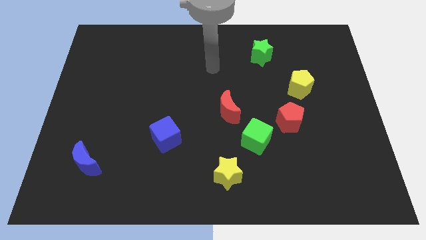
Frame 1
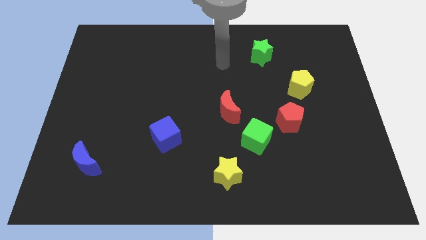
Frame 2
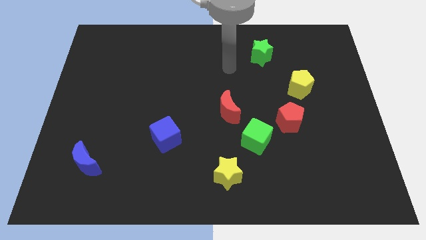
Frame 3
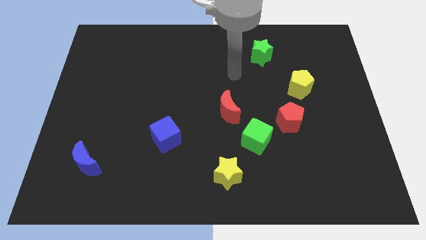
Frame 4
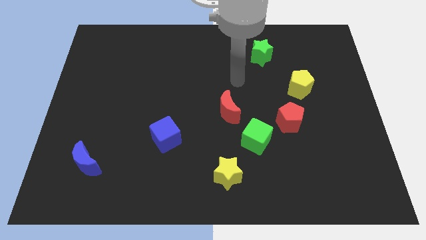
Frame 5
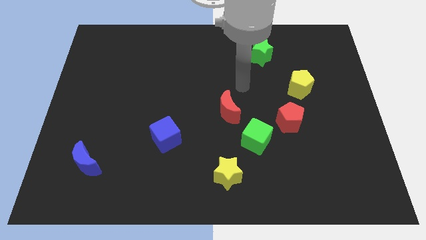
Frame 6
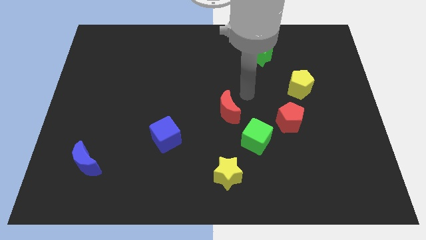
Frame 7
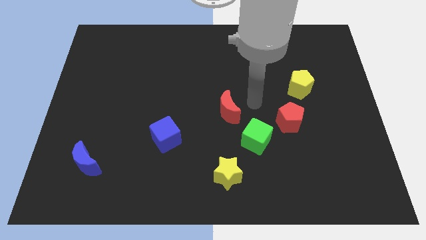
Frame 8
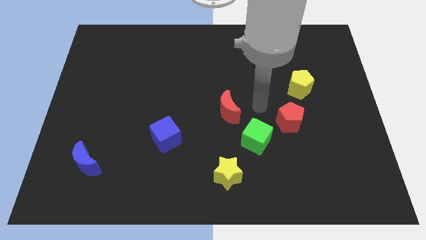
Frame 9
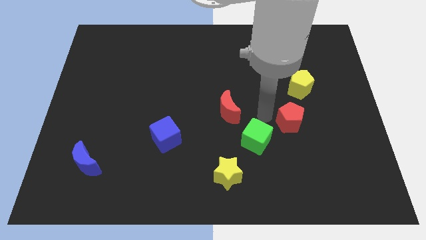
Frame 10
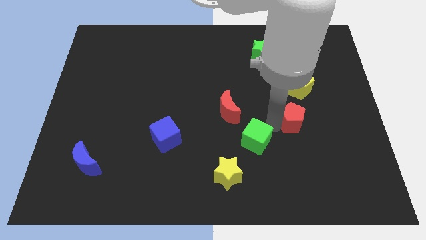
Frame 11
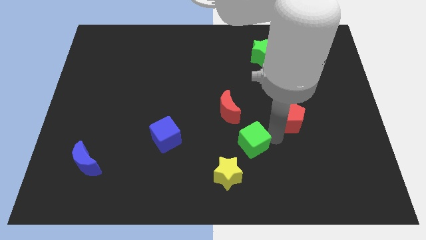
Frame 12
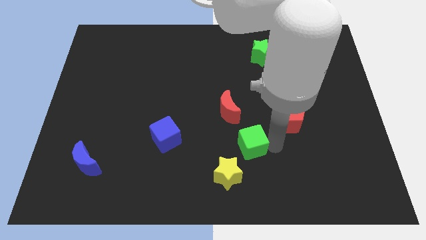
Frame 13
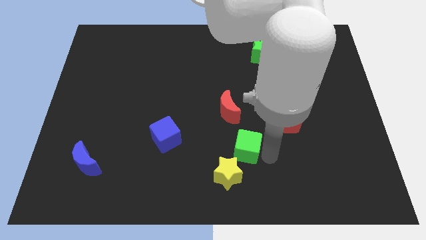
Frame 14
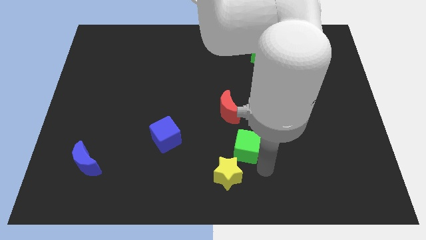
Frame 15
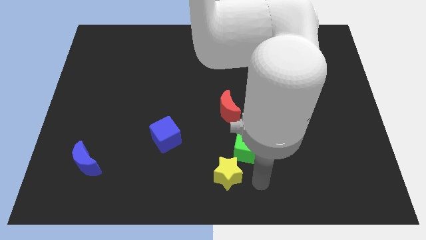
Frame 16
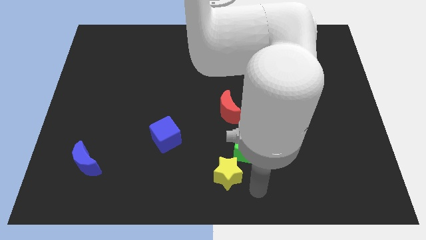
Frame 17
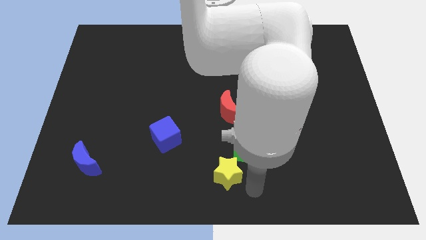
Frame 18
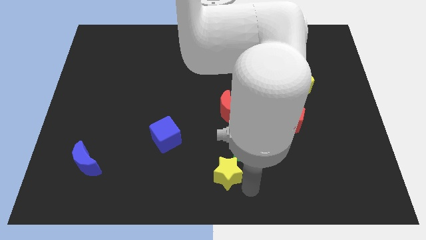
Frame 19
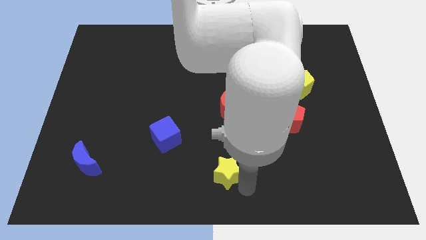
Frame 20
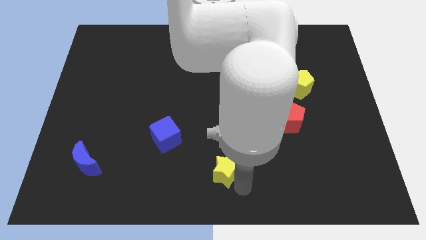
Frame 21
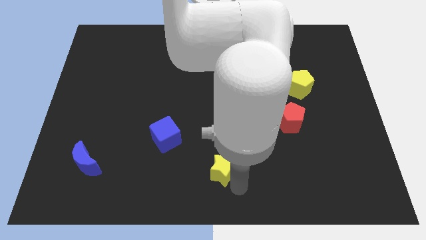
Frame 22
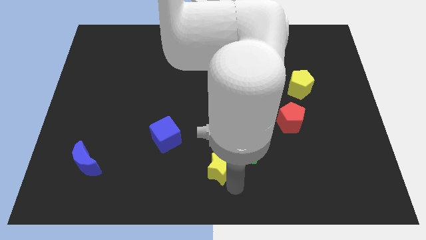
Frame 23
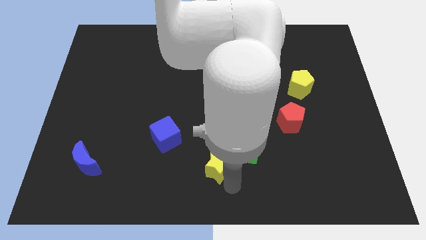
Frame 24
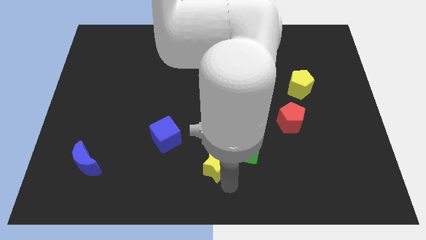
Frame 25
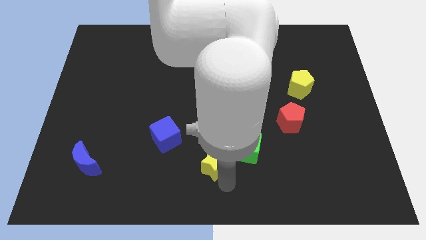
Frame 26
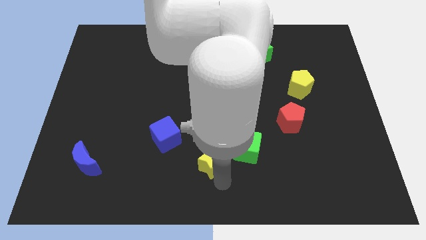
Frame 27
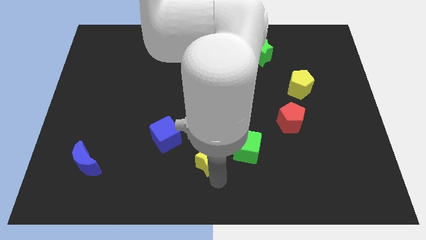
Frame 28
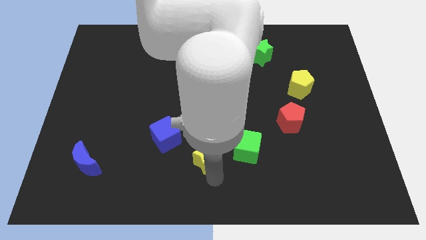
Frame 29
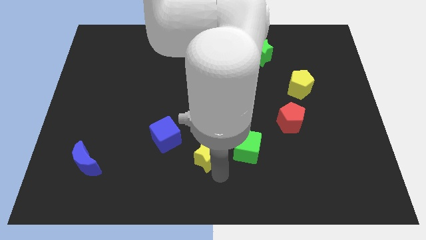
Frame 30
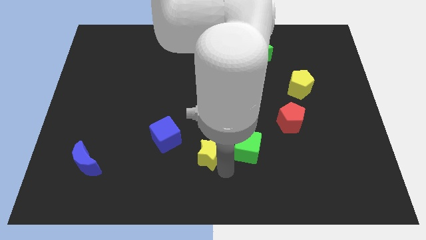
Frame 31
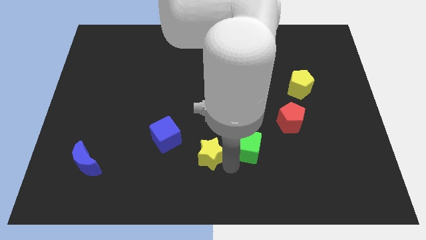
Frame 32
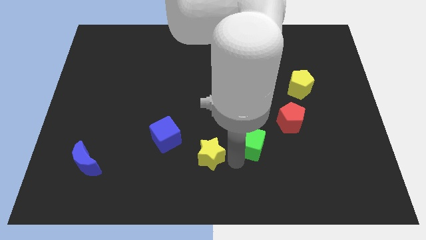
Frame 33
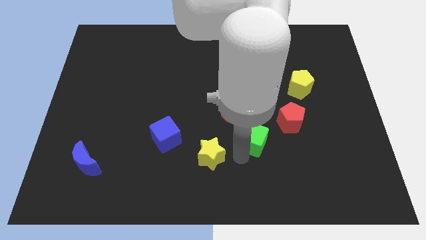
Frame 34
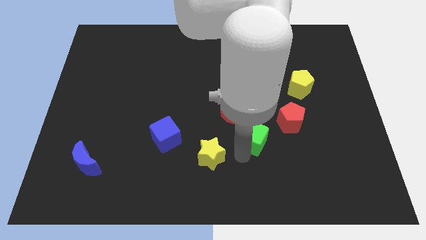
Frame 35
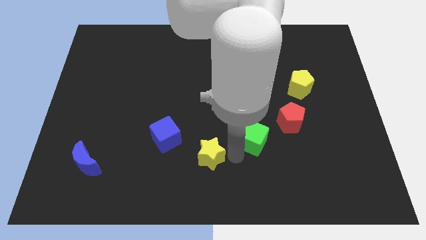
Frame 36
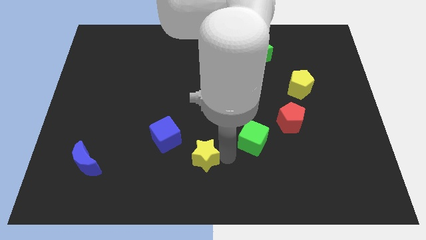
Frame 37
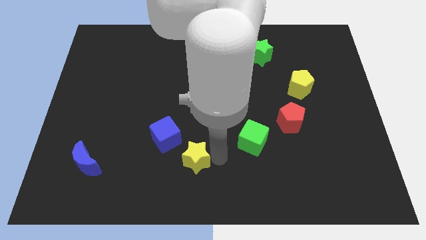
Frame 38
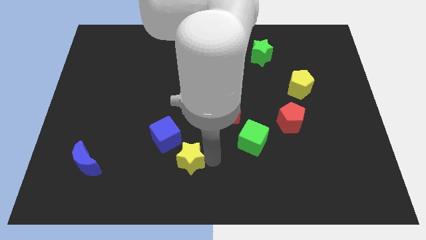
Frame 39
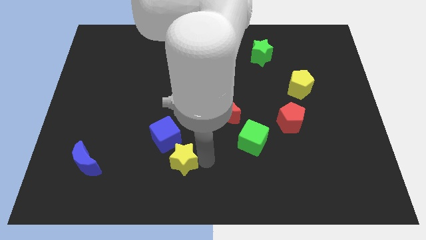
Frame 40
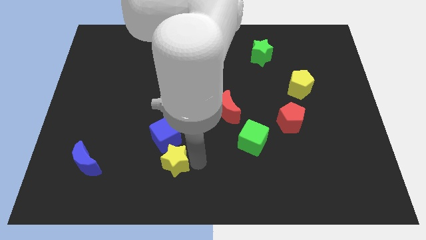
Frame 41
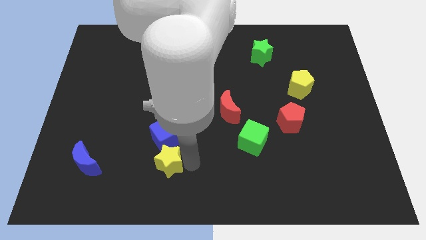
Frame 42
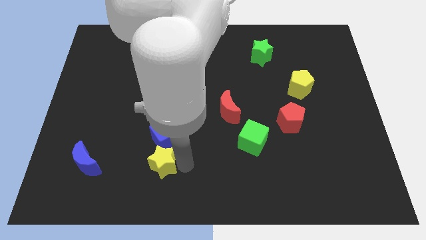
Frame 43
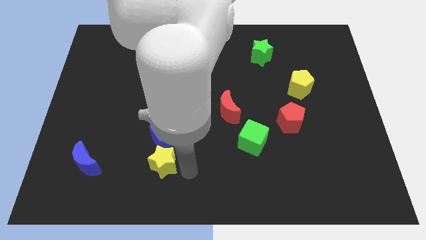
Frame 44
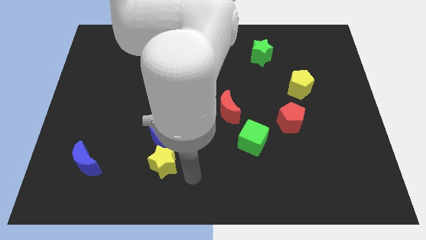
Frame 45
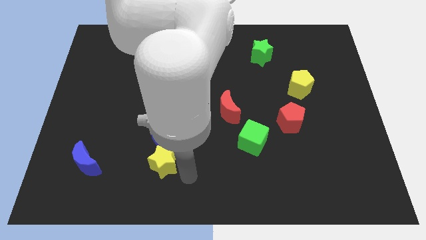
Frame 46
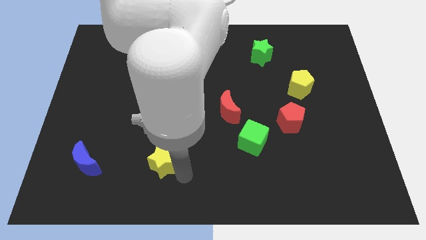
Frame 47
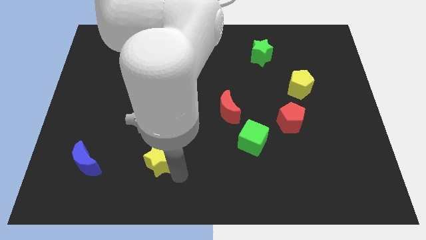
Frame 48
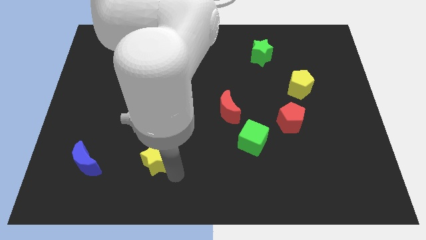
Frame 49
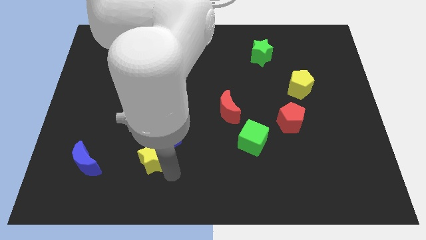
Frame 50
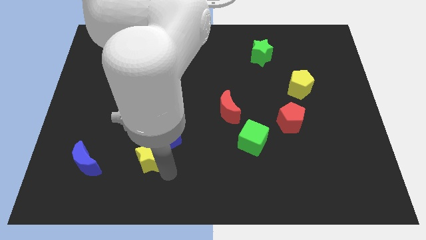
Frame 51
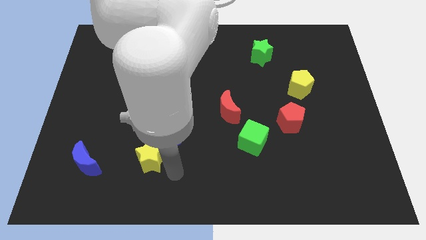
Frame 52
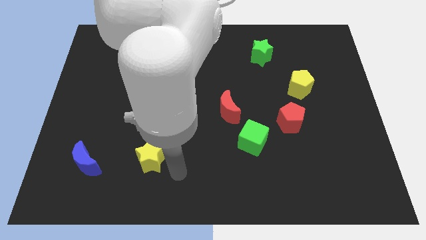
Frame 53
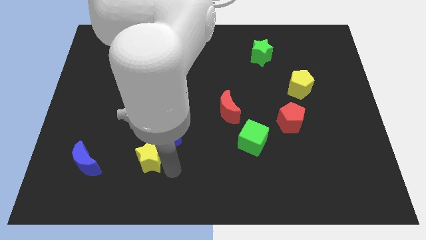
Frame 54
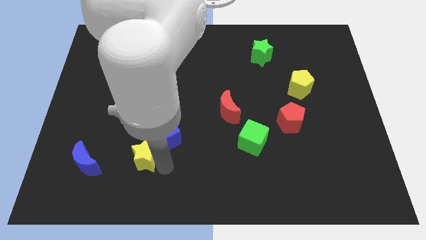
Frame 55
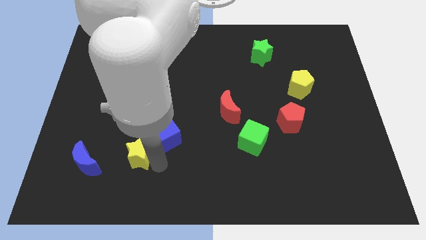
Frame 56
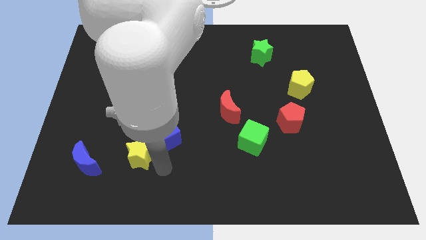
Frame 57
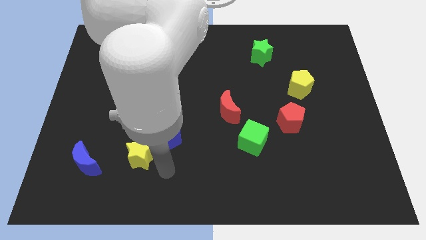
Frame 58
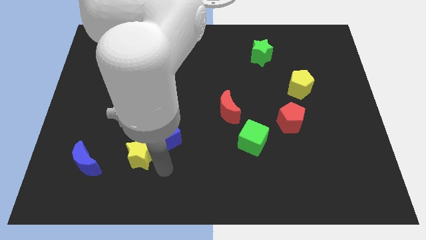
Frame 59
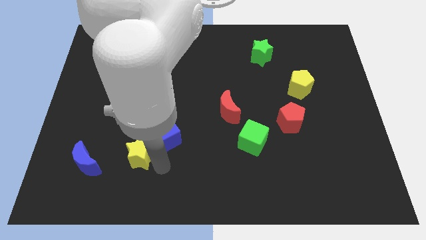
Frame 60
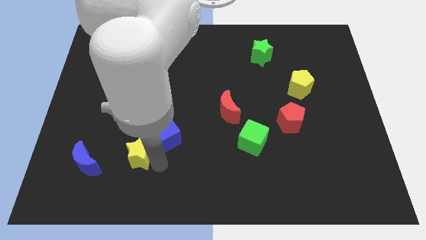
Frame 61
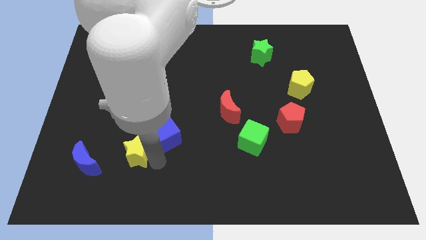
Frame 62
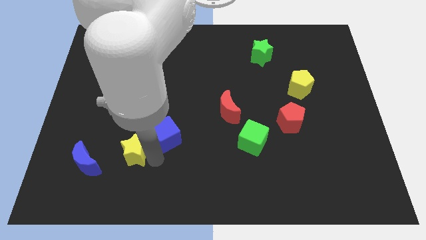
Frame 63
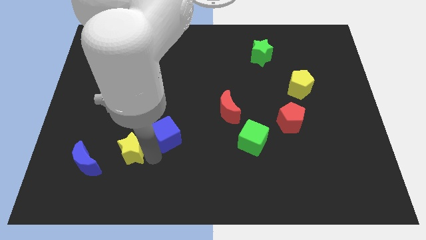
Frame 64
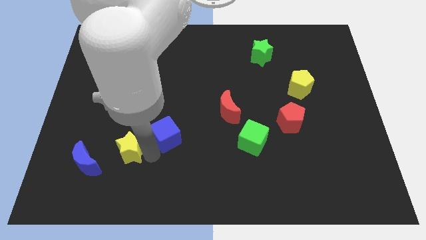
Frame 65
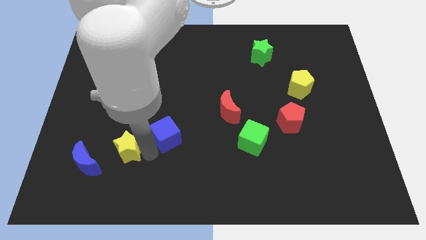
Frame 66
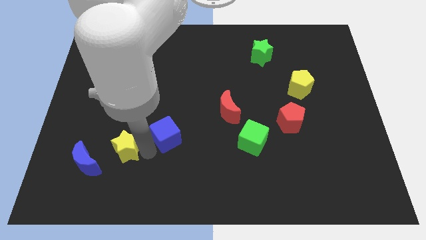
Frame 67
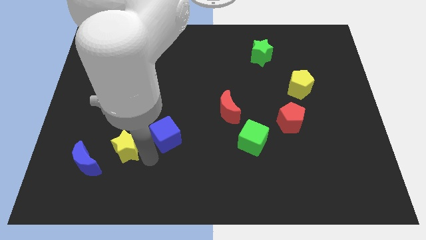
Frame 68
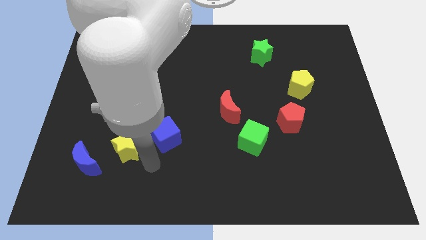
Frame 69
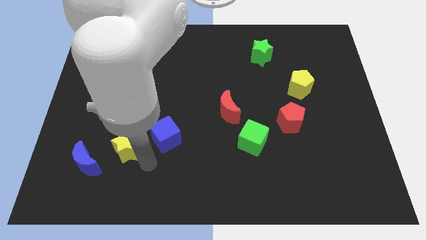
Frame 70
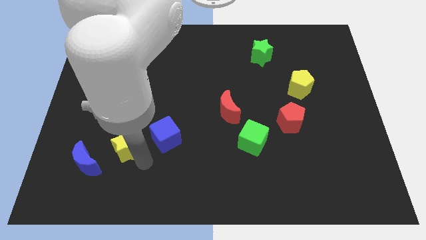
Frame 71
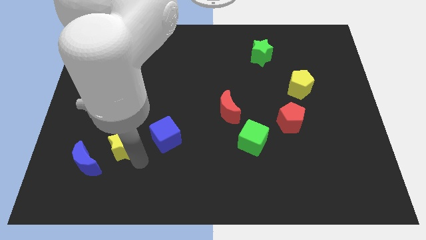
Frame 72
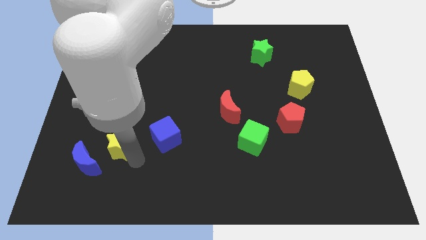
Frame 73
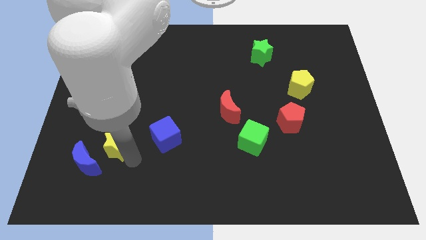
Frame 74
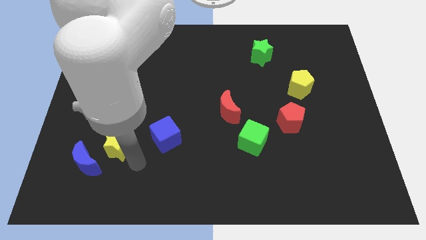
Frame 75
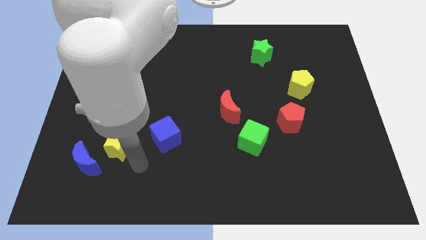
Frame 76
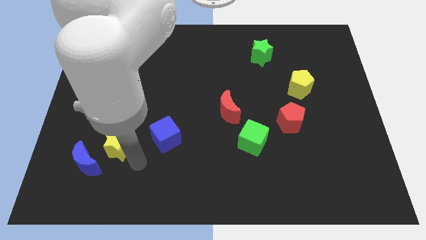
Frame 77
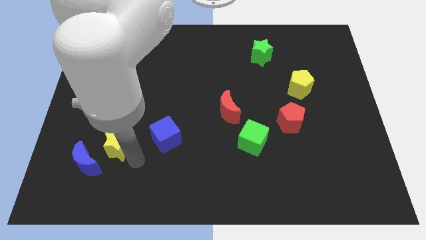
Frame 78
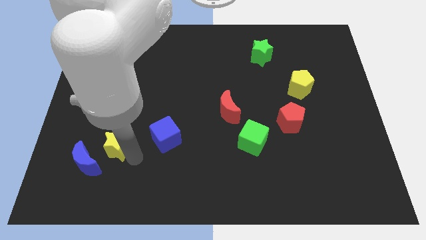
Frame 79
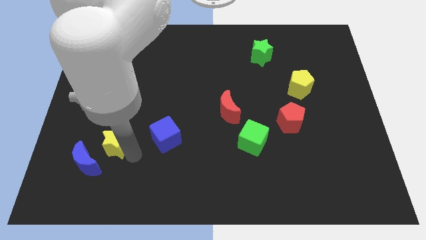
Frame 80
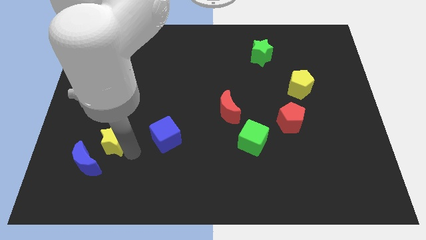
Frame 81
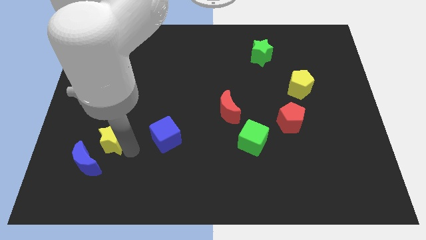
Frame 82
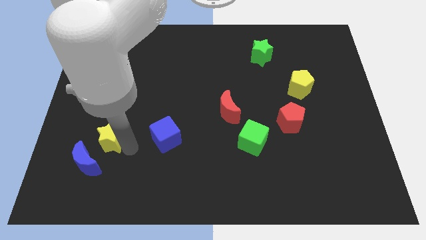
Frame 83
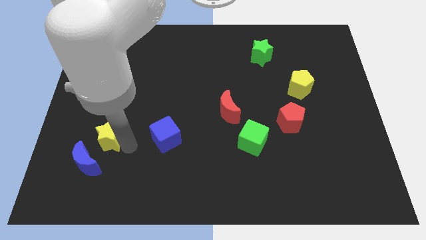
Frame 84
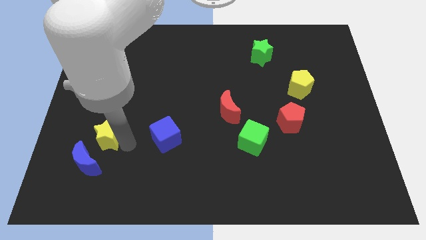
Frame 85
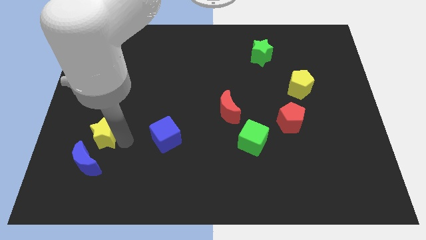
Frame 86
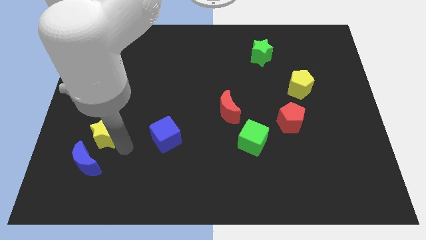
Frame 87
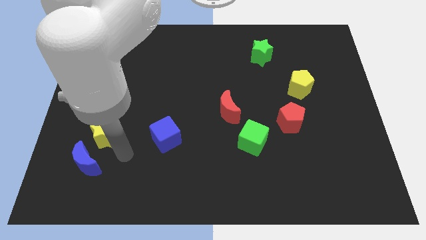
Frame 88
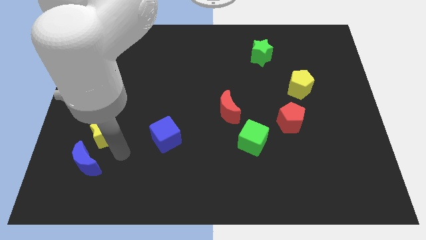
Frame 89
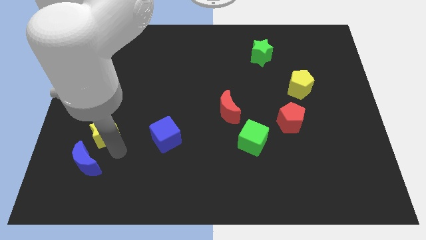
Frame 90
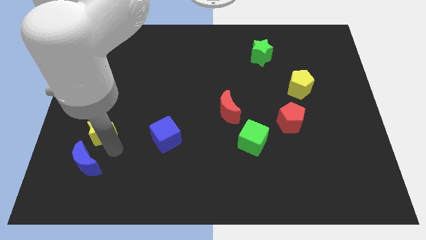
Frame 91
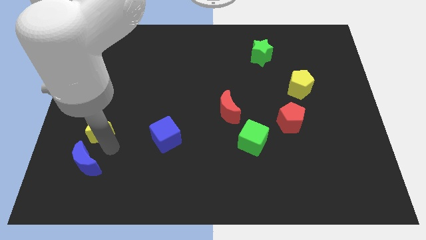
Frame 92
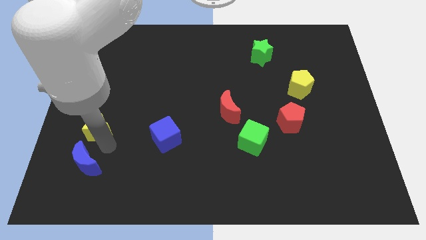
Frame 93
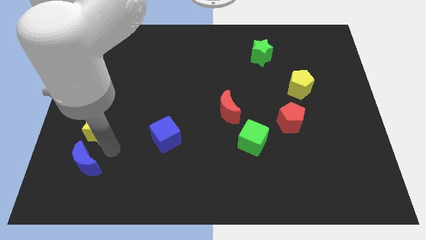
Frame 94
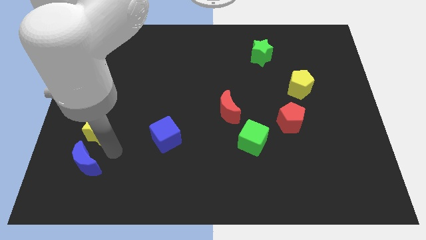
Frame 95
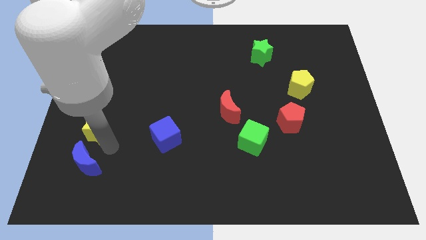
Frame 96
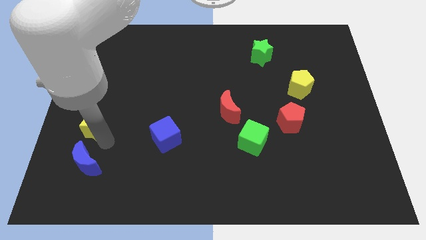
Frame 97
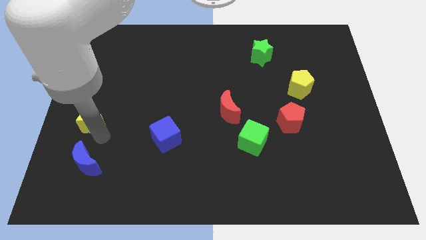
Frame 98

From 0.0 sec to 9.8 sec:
move the yellow star to the left side of the board
